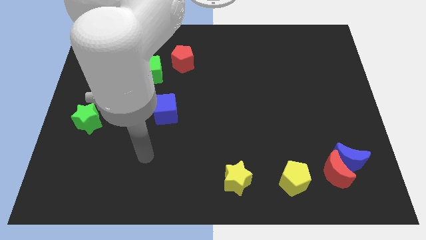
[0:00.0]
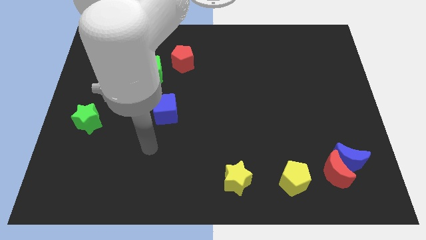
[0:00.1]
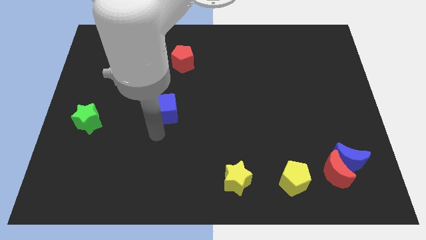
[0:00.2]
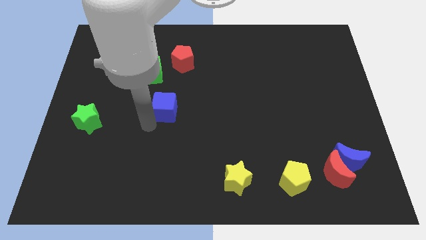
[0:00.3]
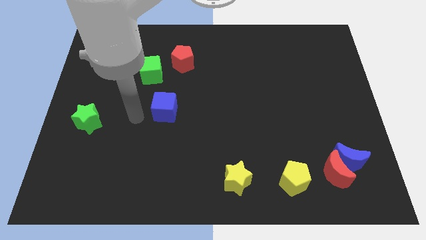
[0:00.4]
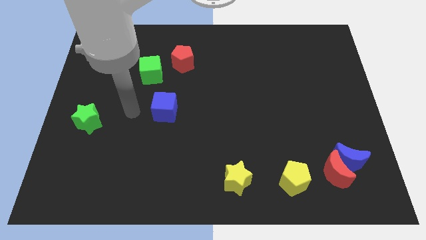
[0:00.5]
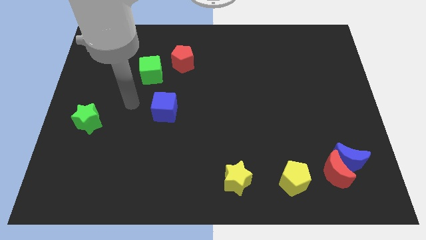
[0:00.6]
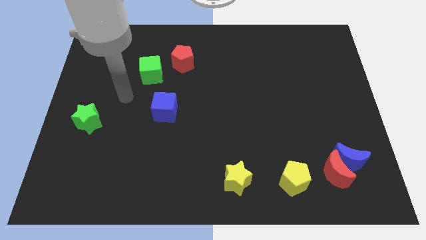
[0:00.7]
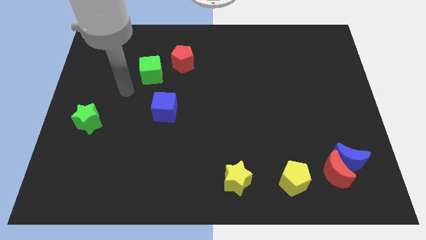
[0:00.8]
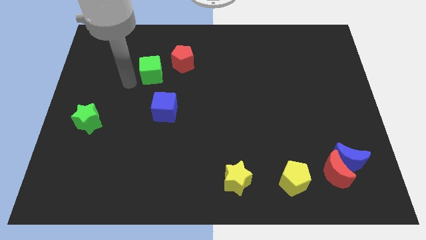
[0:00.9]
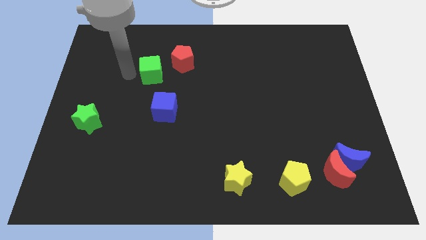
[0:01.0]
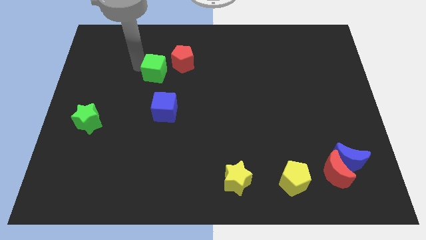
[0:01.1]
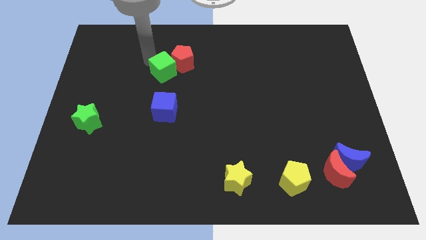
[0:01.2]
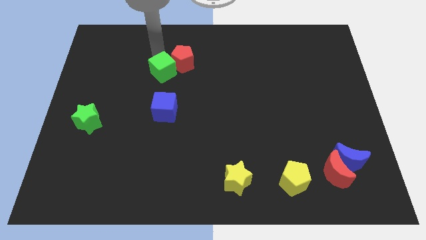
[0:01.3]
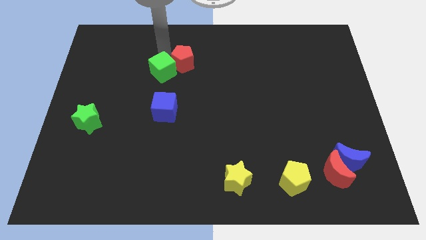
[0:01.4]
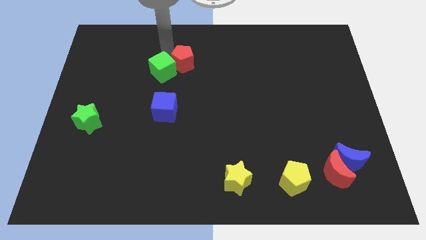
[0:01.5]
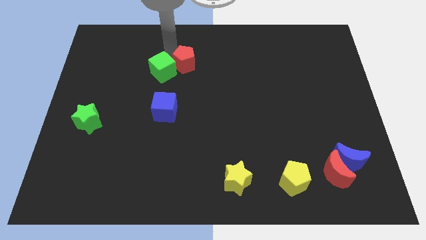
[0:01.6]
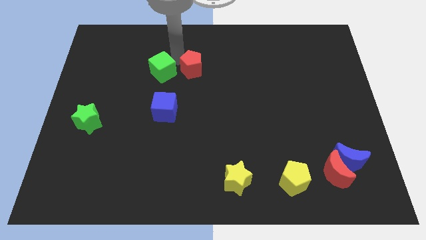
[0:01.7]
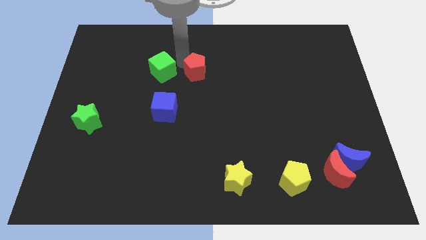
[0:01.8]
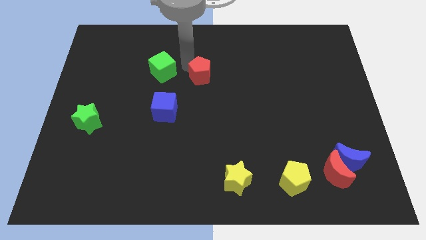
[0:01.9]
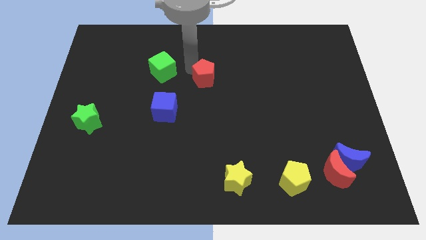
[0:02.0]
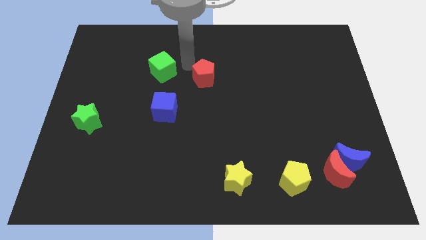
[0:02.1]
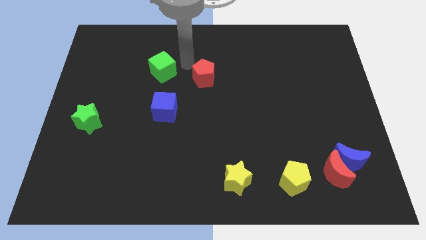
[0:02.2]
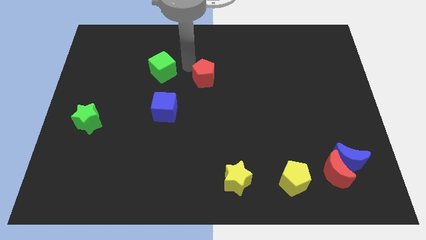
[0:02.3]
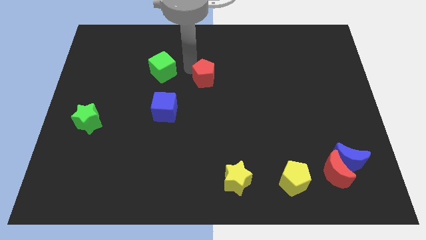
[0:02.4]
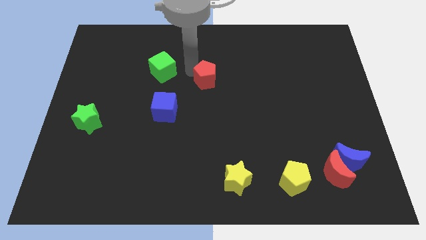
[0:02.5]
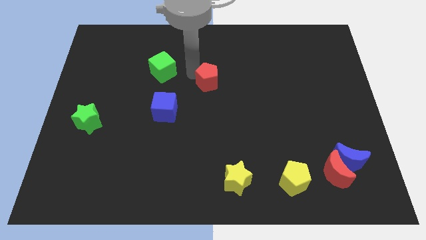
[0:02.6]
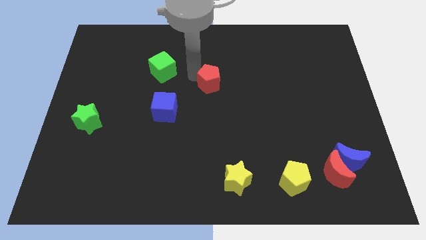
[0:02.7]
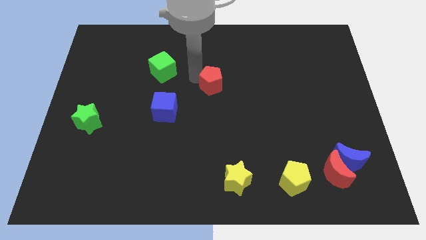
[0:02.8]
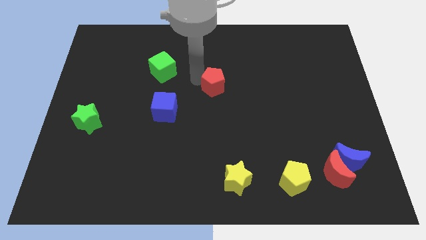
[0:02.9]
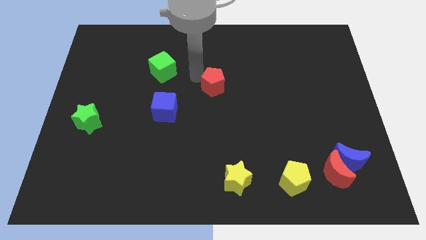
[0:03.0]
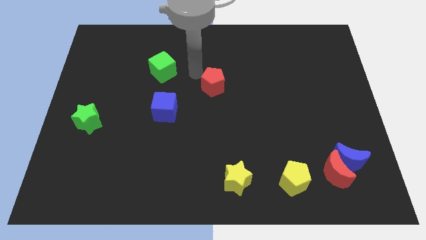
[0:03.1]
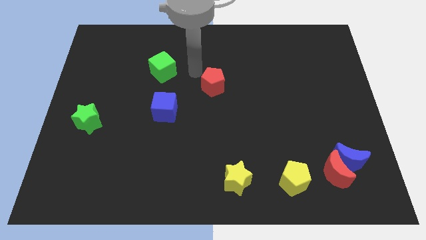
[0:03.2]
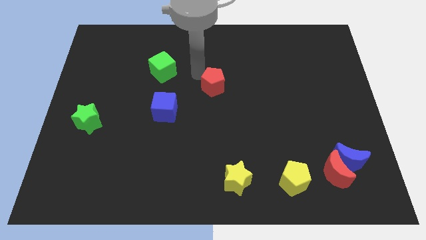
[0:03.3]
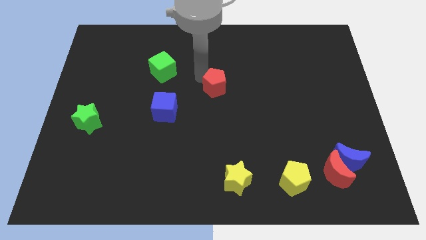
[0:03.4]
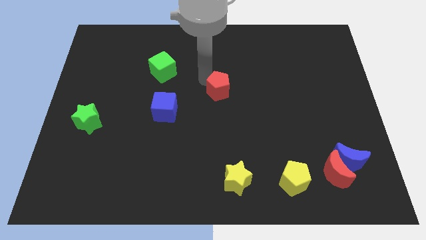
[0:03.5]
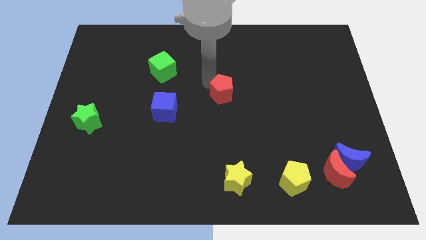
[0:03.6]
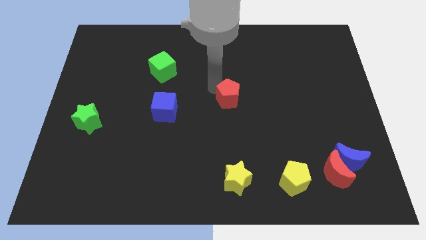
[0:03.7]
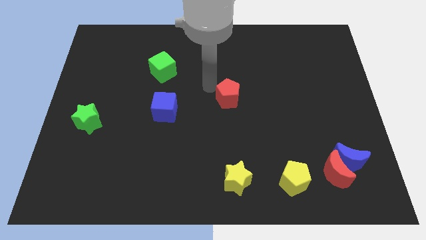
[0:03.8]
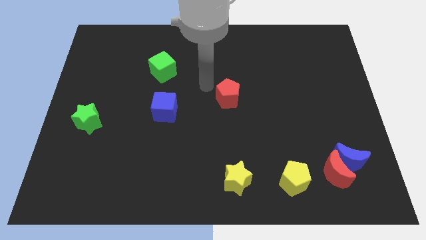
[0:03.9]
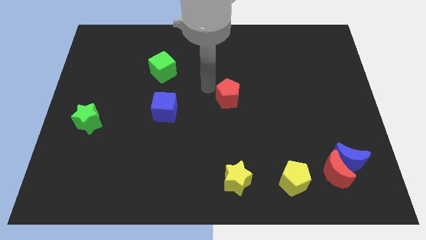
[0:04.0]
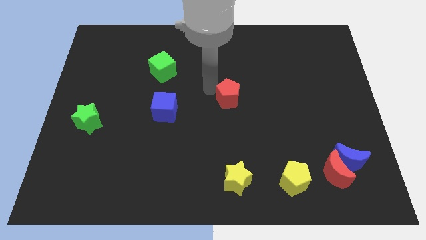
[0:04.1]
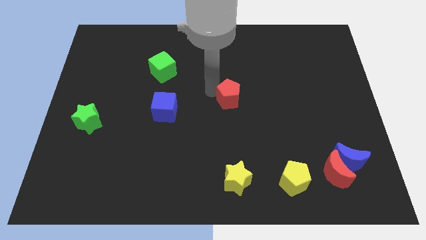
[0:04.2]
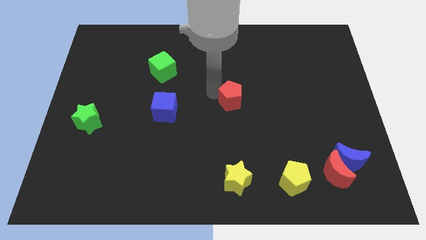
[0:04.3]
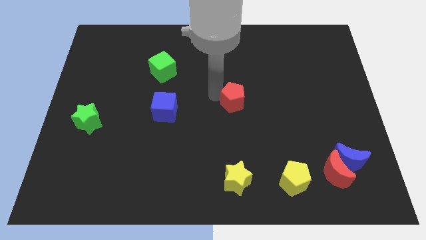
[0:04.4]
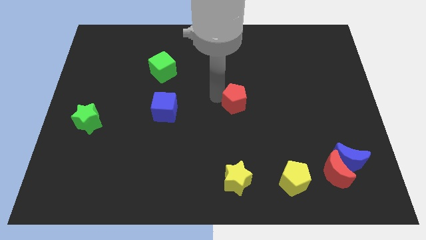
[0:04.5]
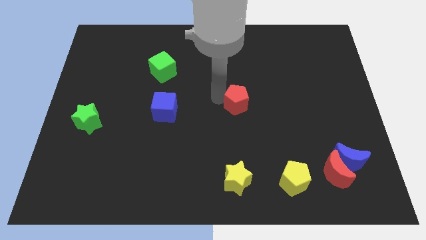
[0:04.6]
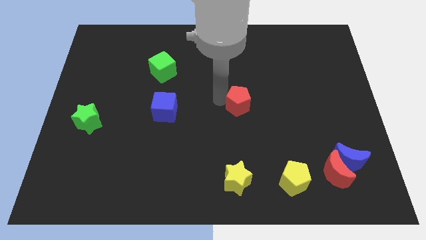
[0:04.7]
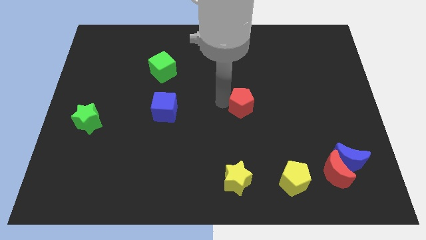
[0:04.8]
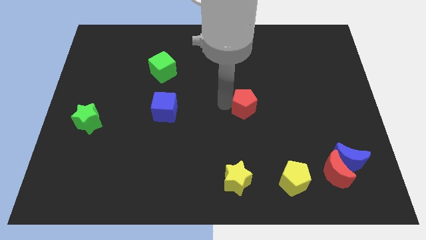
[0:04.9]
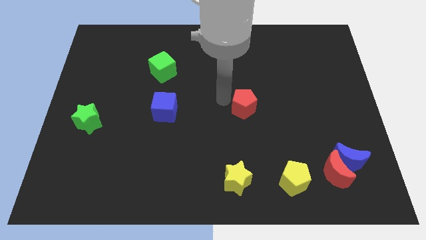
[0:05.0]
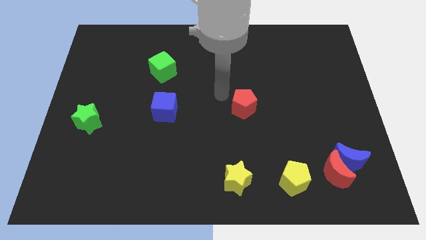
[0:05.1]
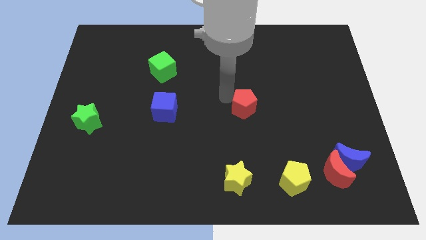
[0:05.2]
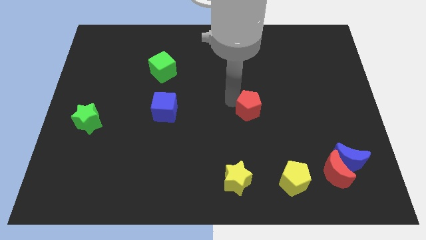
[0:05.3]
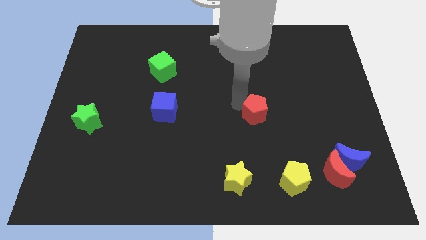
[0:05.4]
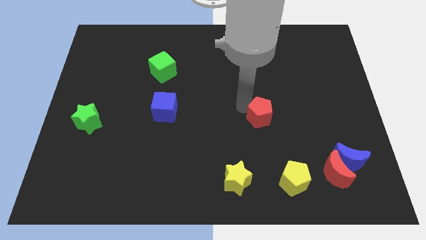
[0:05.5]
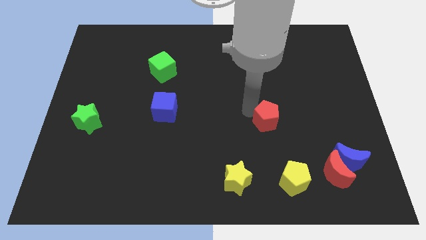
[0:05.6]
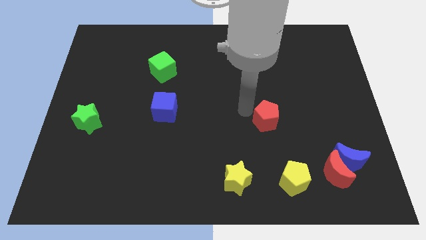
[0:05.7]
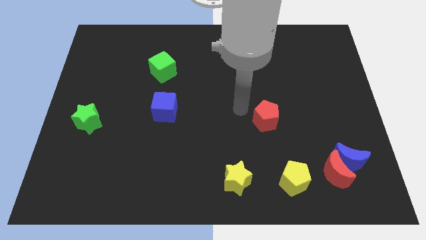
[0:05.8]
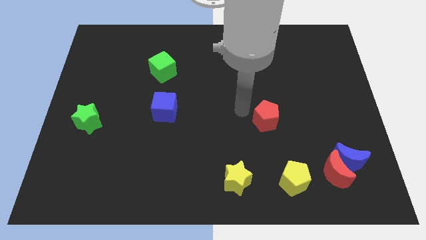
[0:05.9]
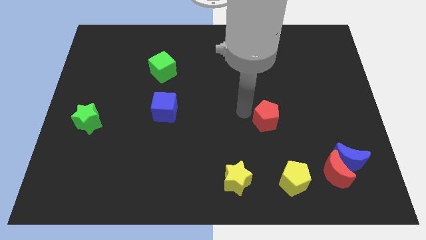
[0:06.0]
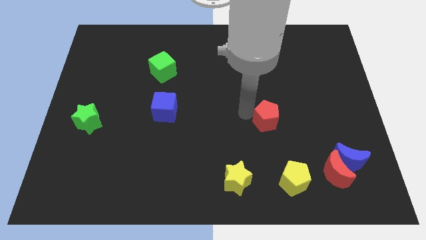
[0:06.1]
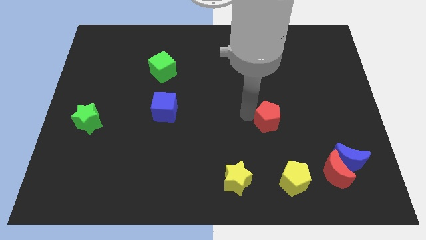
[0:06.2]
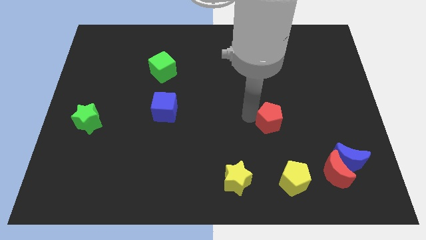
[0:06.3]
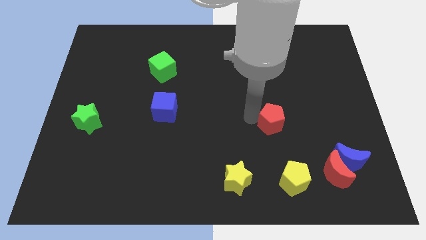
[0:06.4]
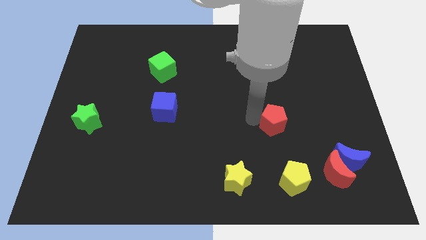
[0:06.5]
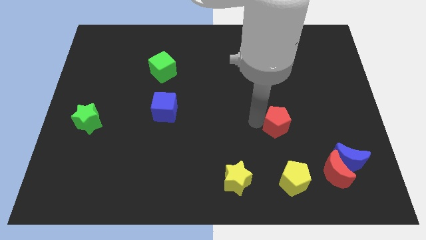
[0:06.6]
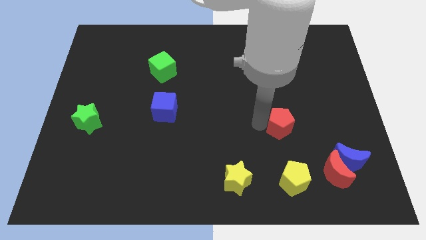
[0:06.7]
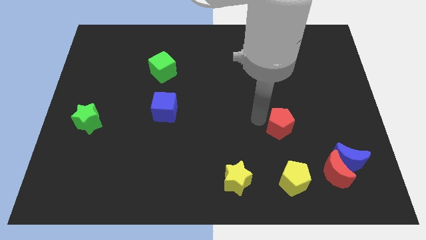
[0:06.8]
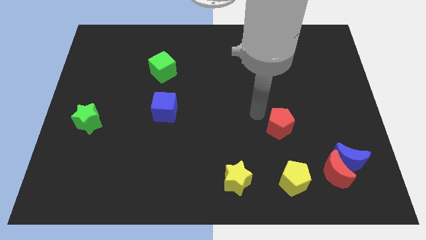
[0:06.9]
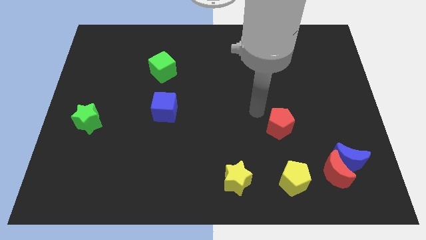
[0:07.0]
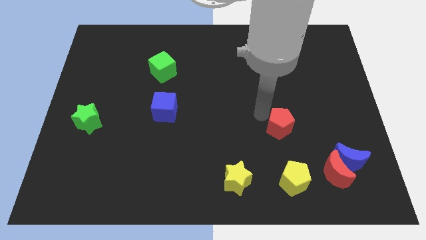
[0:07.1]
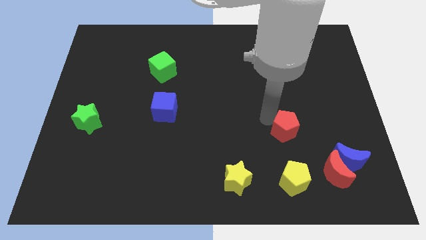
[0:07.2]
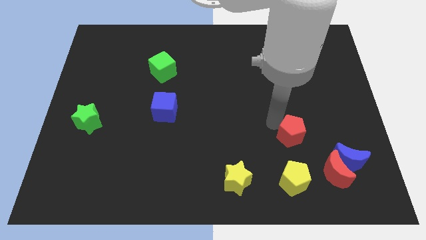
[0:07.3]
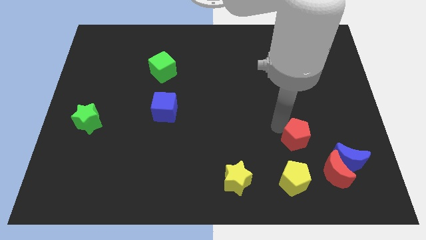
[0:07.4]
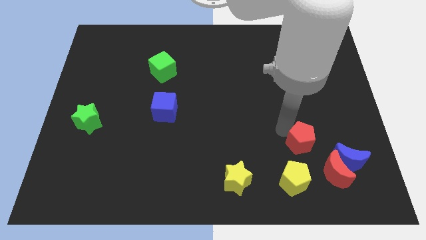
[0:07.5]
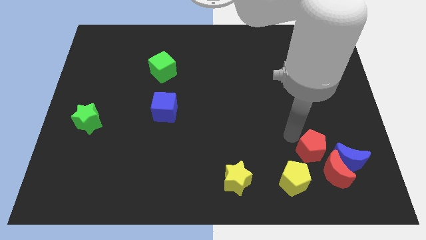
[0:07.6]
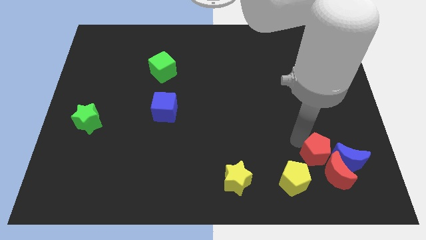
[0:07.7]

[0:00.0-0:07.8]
put the red pentagon towards the red moon
